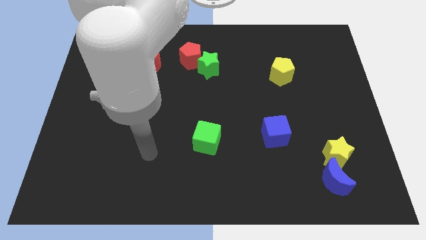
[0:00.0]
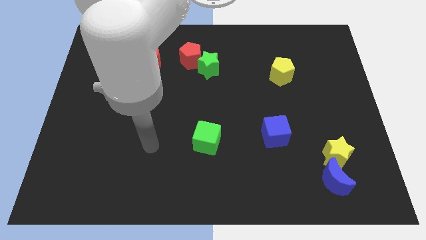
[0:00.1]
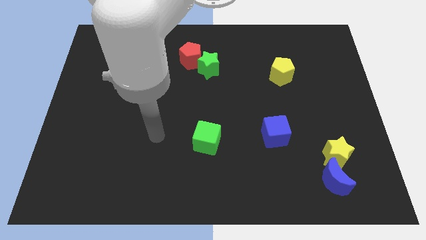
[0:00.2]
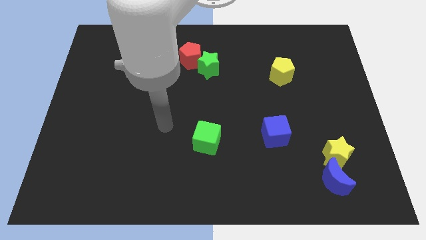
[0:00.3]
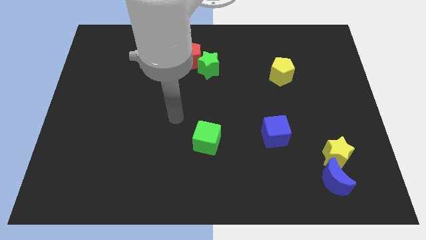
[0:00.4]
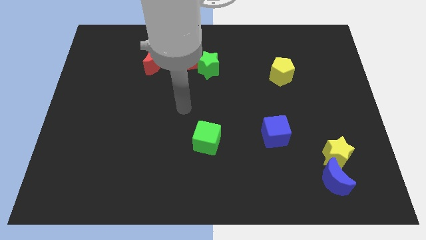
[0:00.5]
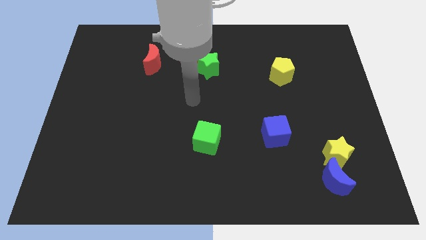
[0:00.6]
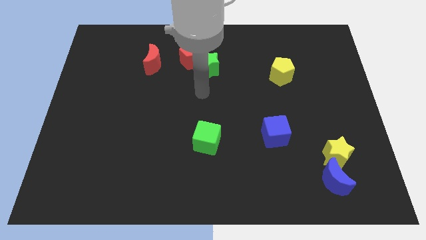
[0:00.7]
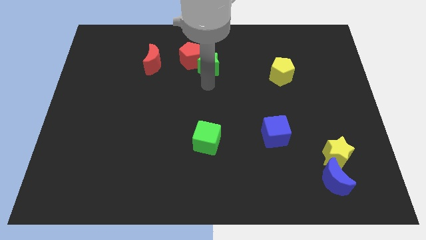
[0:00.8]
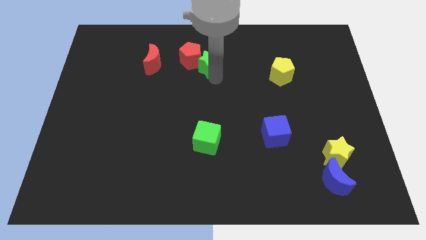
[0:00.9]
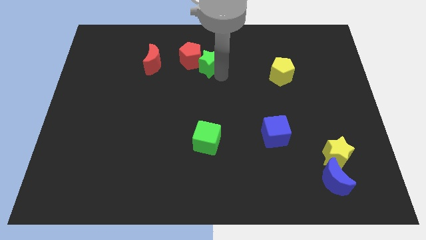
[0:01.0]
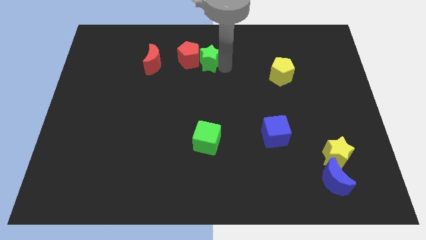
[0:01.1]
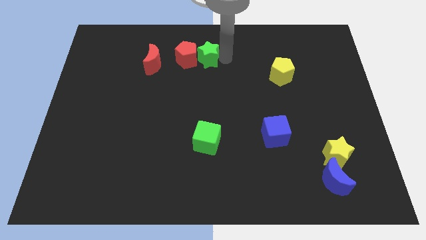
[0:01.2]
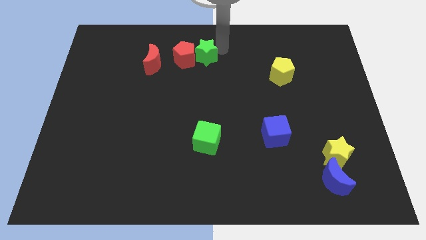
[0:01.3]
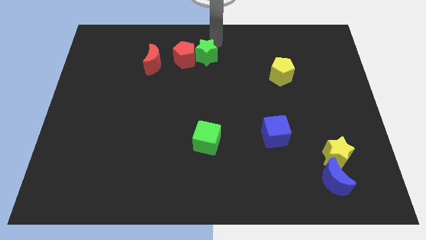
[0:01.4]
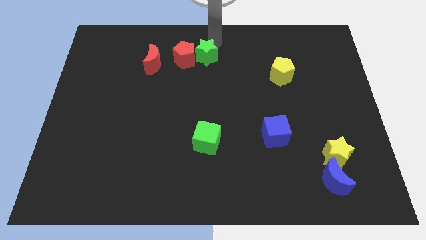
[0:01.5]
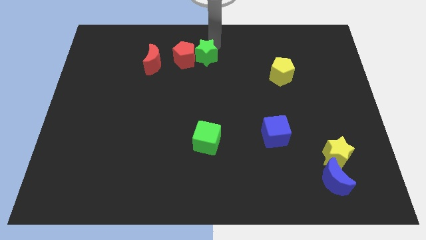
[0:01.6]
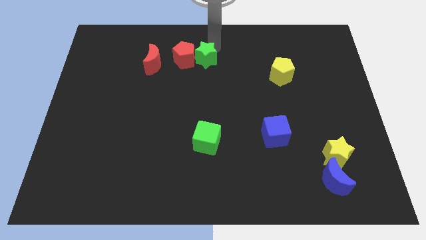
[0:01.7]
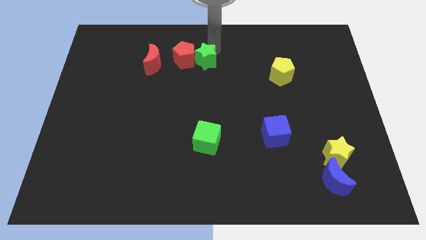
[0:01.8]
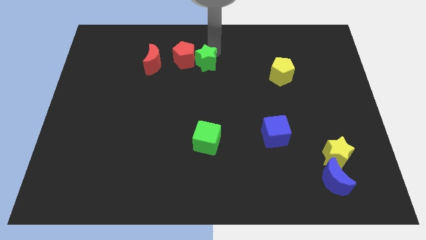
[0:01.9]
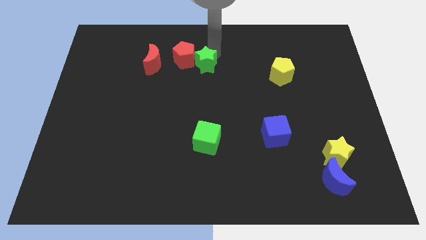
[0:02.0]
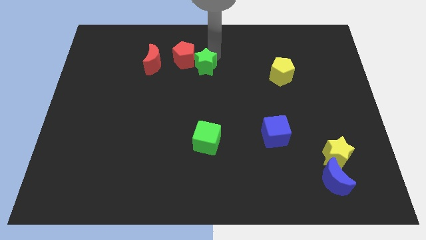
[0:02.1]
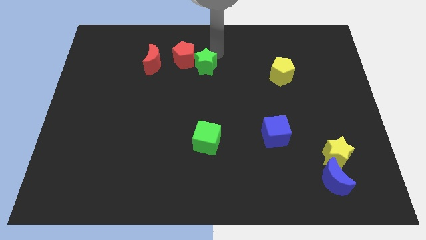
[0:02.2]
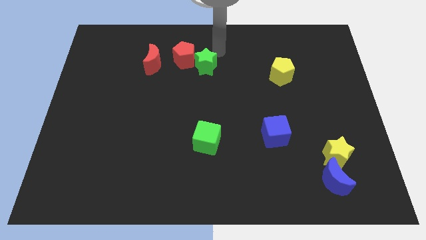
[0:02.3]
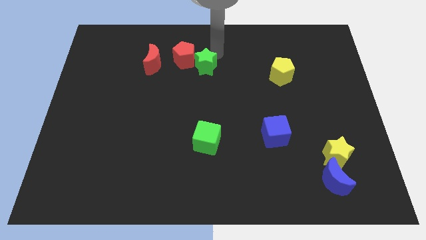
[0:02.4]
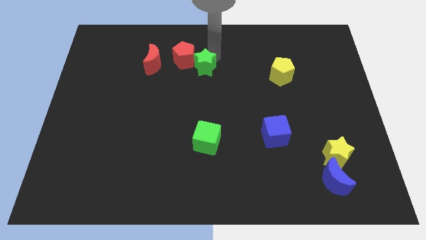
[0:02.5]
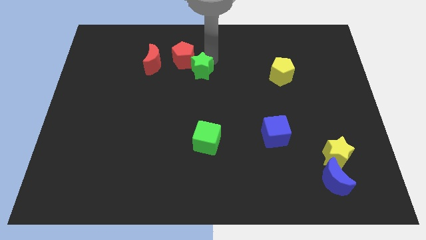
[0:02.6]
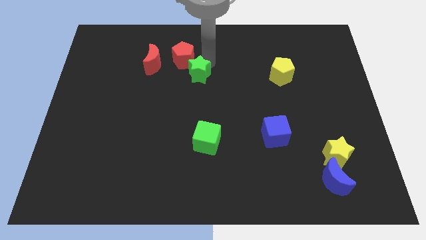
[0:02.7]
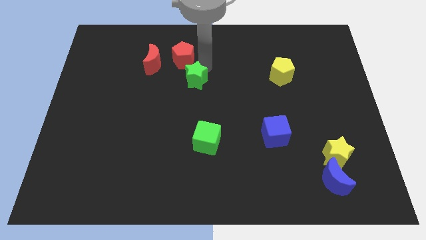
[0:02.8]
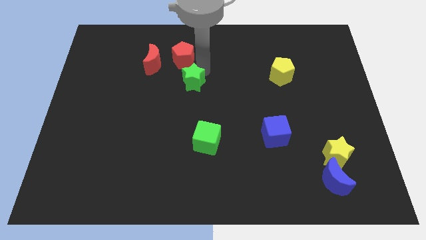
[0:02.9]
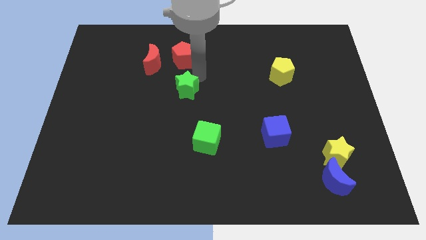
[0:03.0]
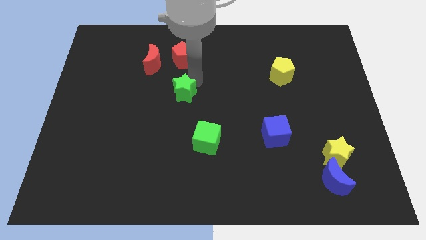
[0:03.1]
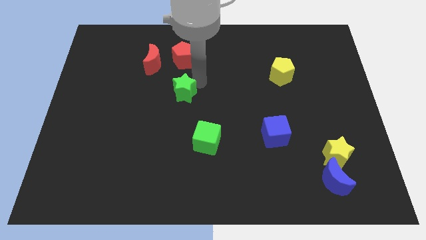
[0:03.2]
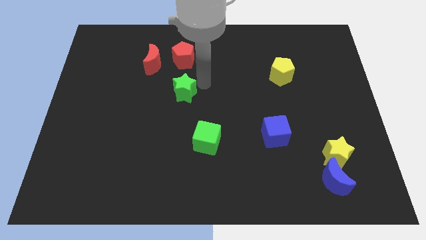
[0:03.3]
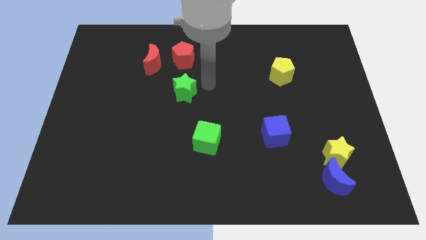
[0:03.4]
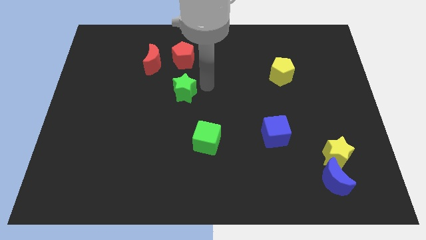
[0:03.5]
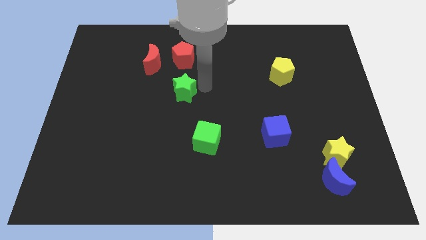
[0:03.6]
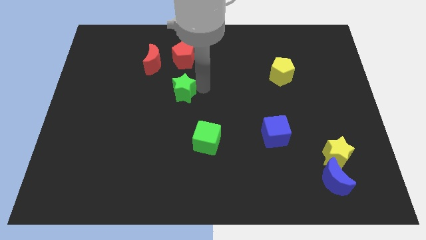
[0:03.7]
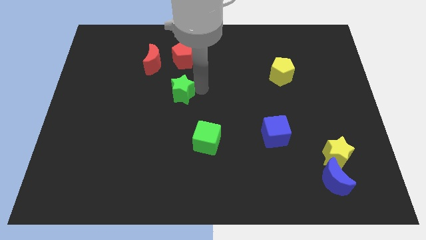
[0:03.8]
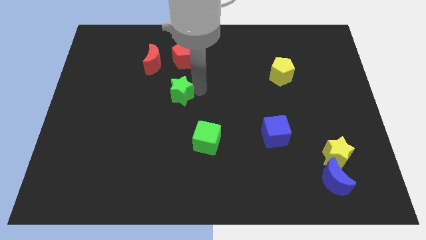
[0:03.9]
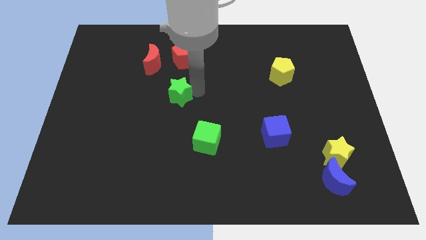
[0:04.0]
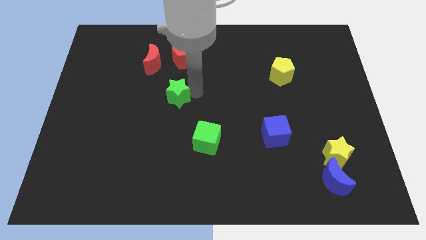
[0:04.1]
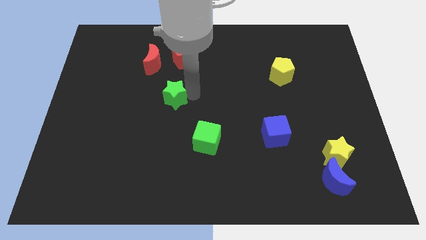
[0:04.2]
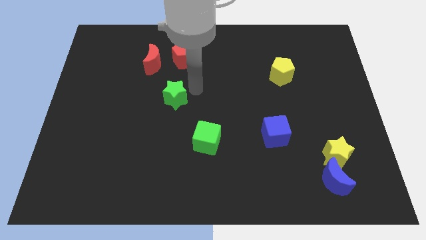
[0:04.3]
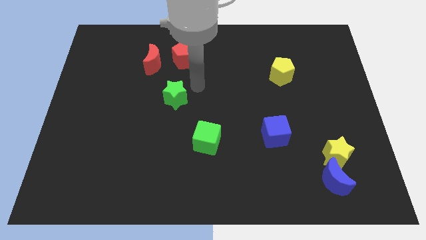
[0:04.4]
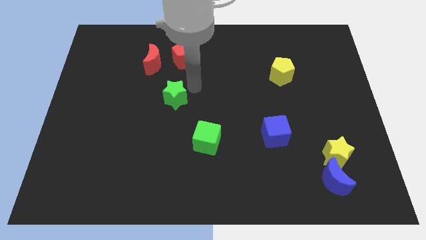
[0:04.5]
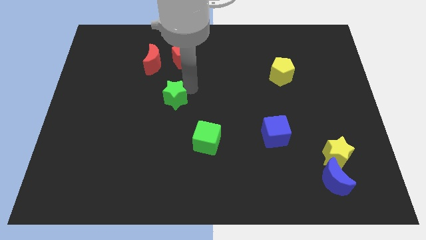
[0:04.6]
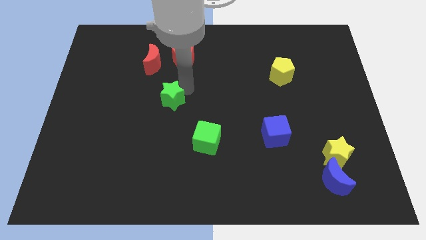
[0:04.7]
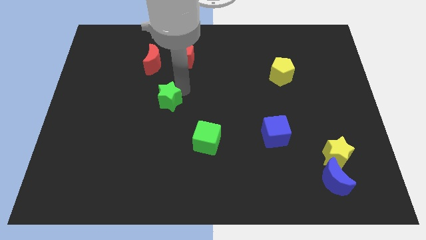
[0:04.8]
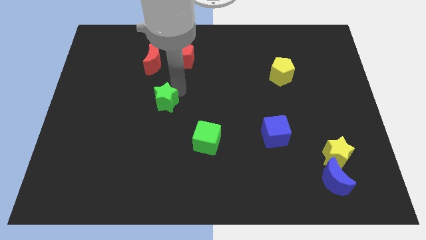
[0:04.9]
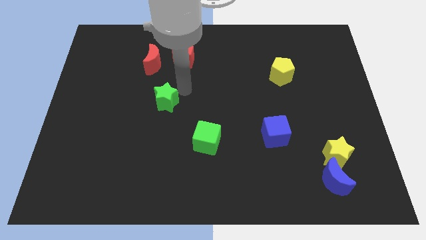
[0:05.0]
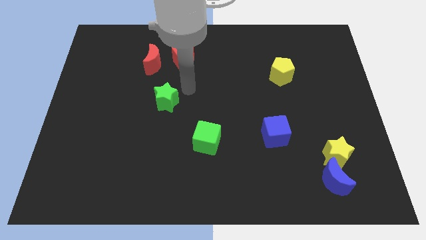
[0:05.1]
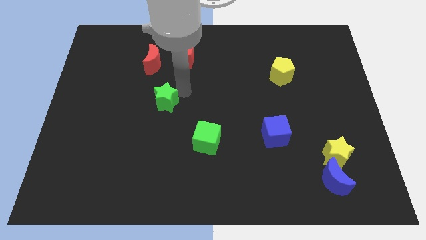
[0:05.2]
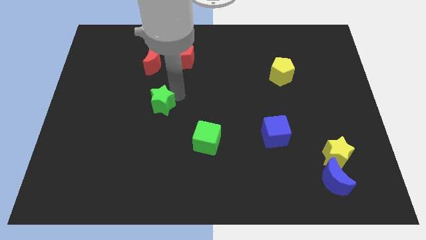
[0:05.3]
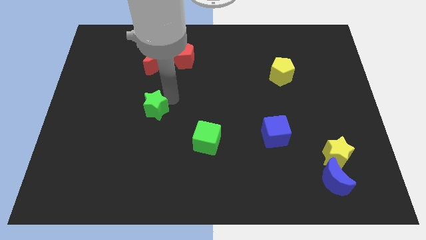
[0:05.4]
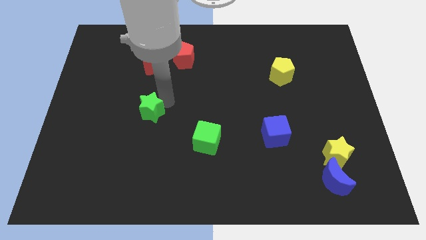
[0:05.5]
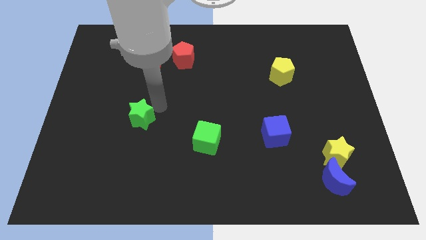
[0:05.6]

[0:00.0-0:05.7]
push the green star down and left diagonally

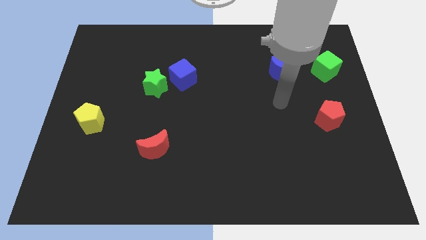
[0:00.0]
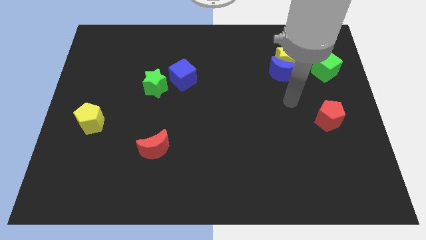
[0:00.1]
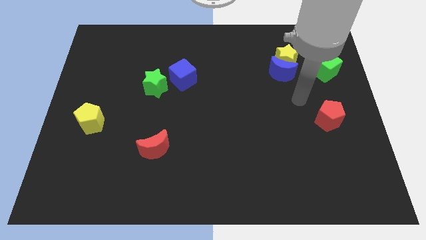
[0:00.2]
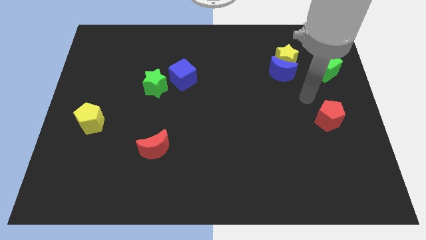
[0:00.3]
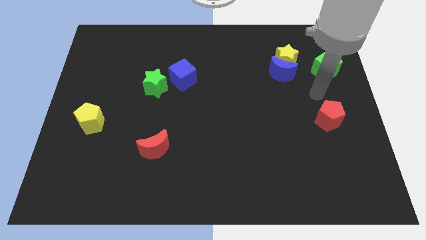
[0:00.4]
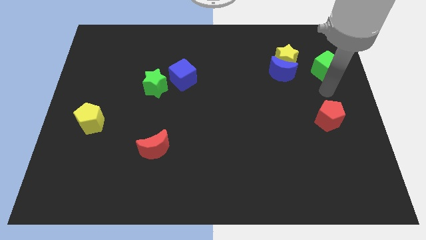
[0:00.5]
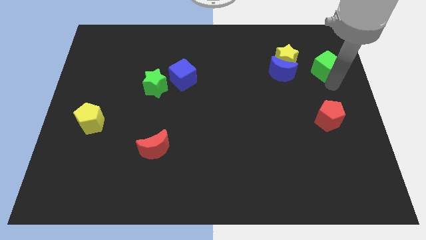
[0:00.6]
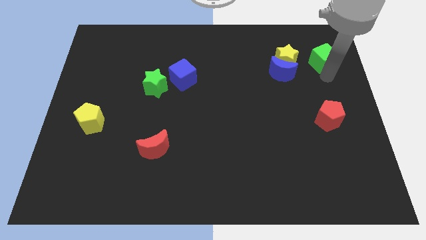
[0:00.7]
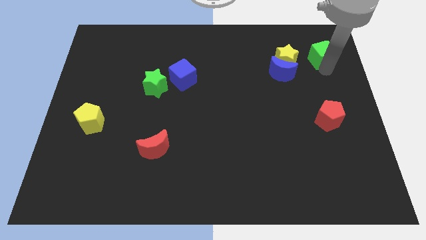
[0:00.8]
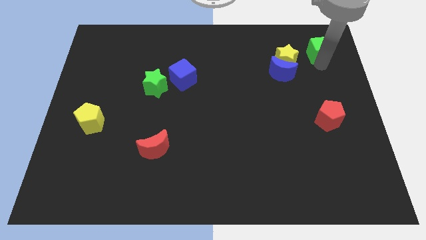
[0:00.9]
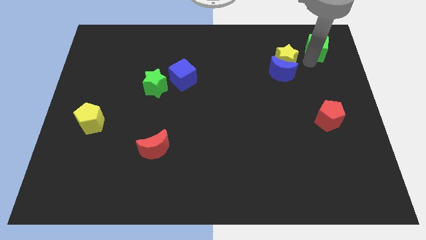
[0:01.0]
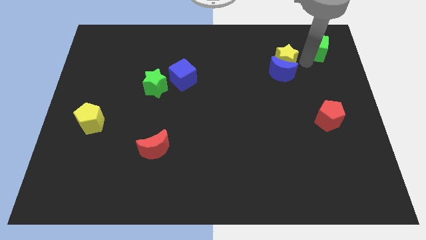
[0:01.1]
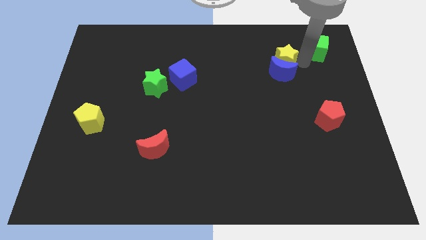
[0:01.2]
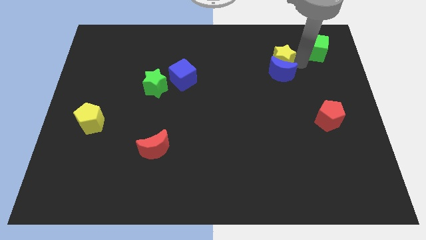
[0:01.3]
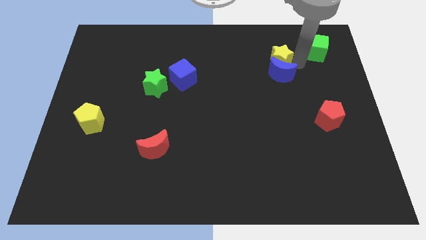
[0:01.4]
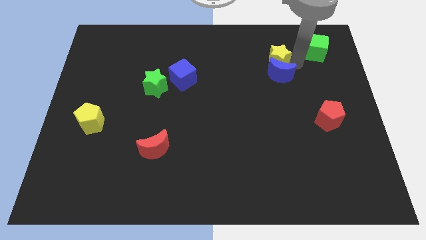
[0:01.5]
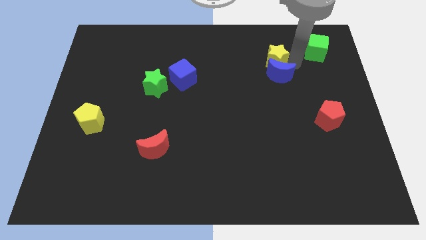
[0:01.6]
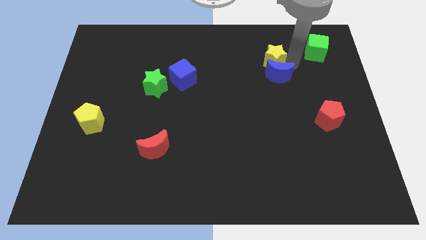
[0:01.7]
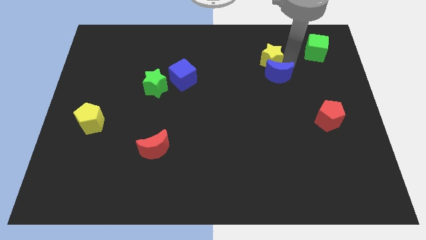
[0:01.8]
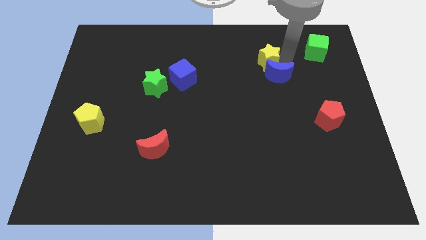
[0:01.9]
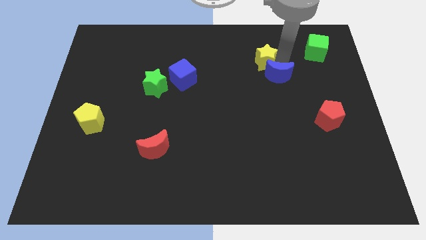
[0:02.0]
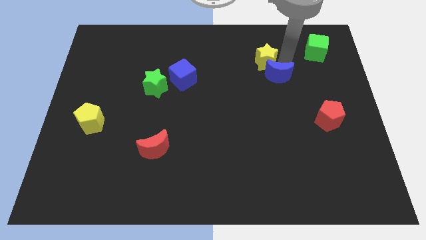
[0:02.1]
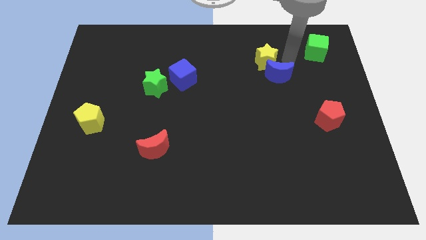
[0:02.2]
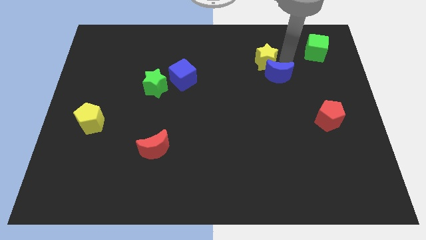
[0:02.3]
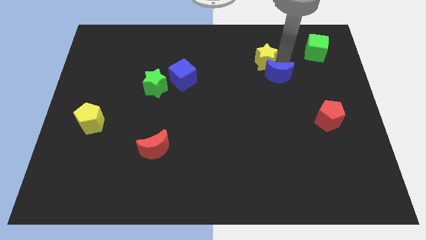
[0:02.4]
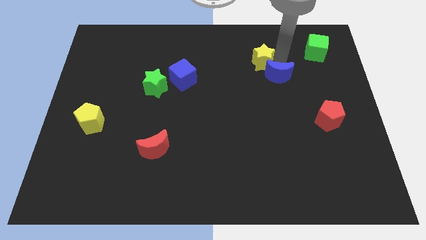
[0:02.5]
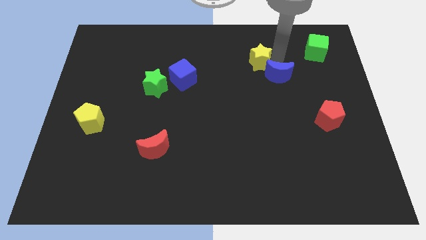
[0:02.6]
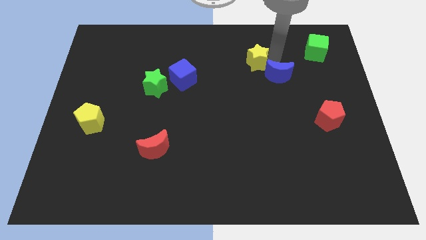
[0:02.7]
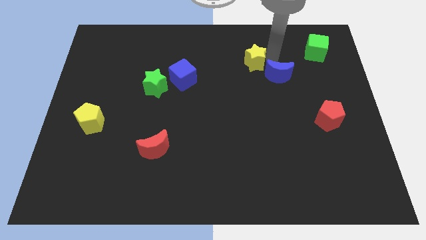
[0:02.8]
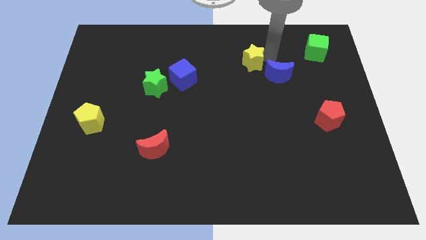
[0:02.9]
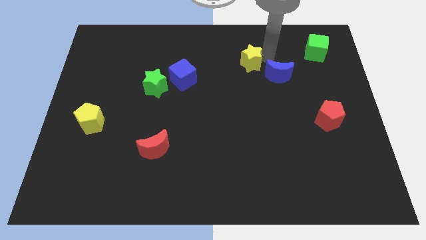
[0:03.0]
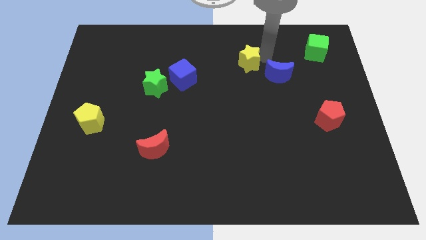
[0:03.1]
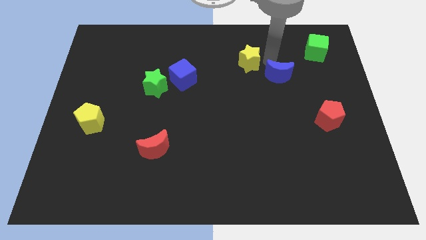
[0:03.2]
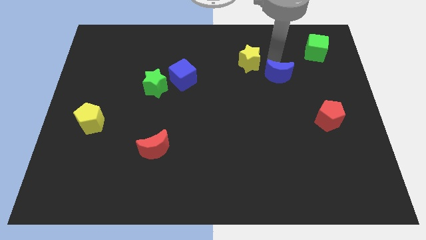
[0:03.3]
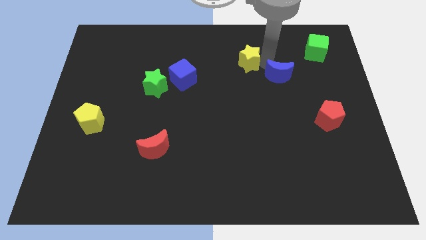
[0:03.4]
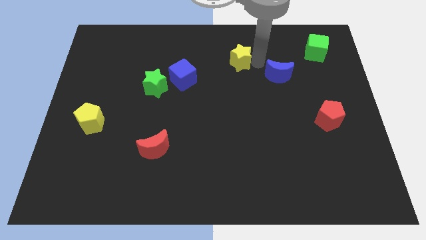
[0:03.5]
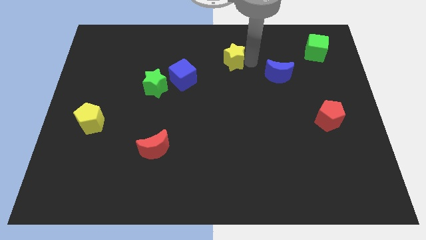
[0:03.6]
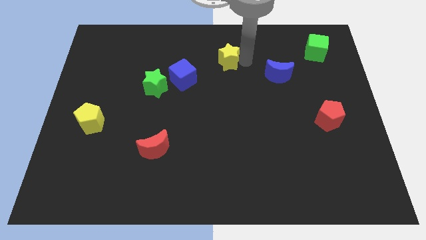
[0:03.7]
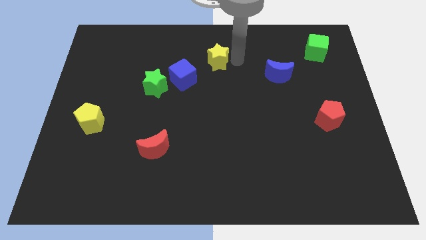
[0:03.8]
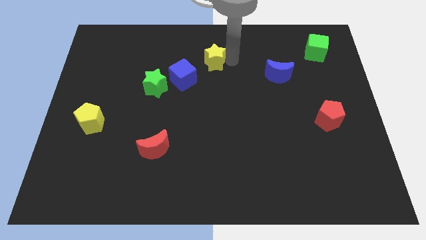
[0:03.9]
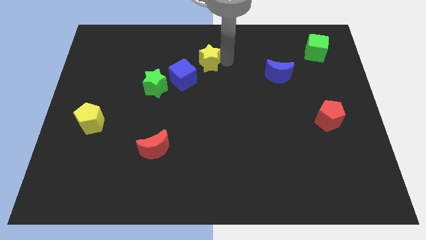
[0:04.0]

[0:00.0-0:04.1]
move the yellow star left
